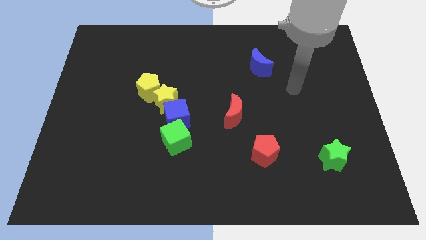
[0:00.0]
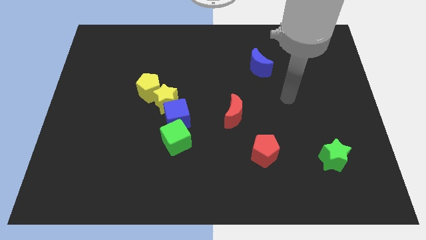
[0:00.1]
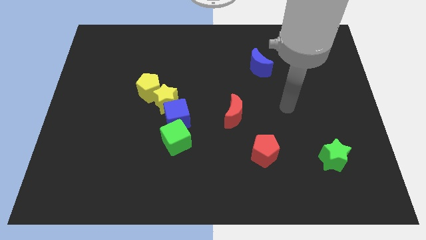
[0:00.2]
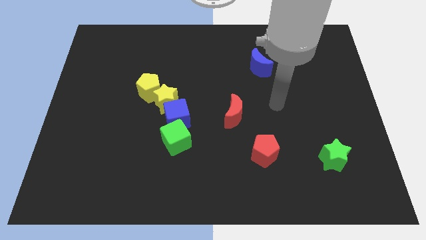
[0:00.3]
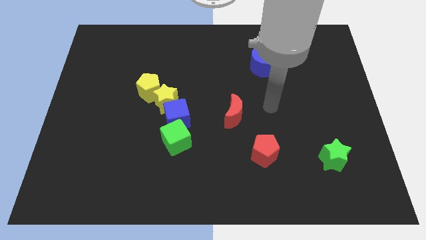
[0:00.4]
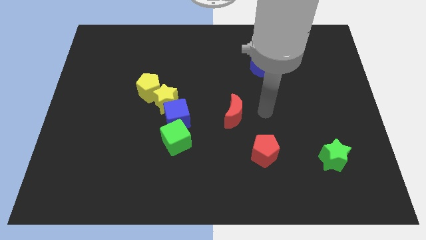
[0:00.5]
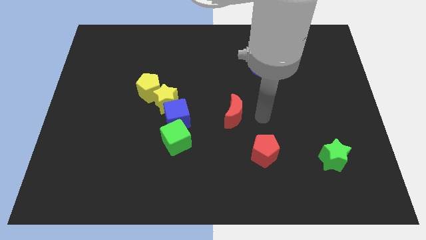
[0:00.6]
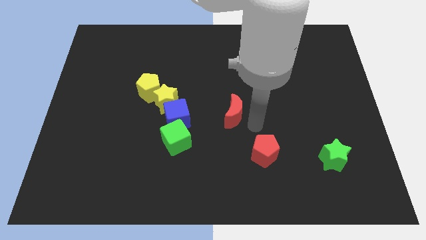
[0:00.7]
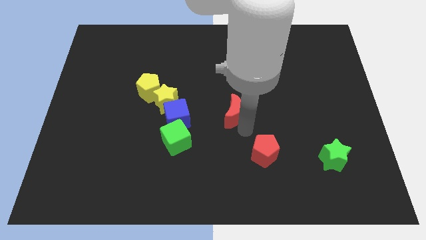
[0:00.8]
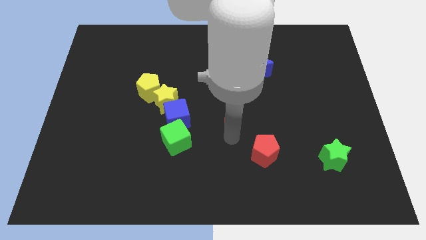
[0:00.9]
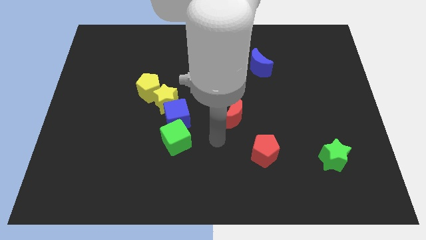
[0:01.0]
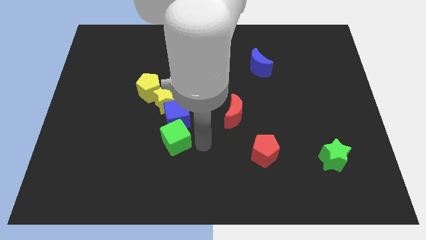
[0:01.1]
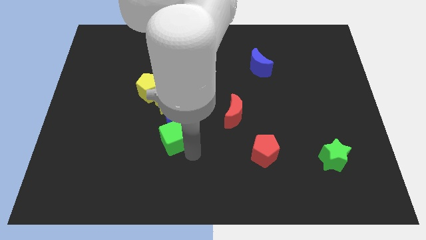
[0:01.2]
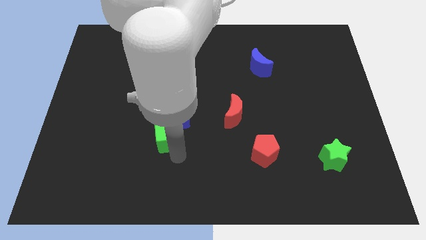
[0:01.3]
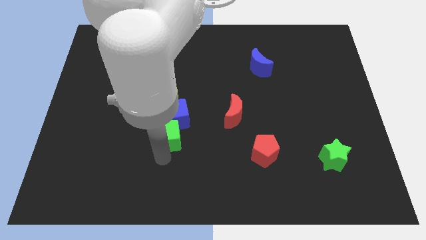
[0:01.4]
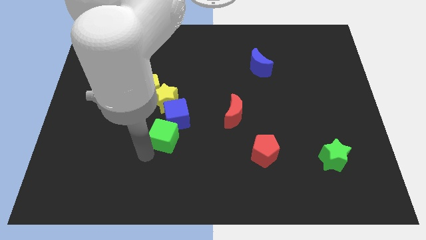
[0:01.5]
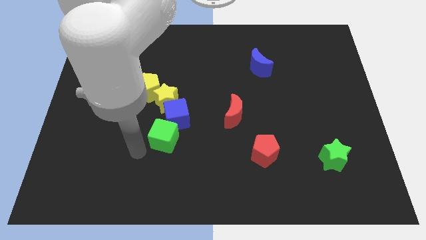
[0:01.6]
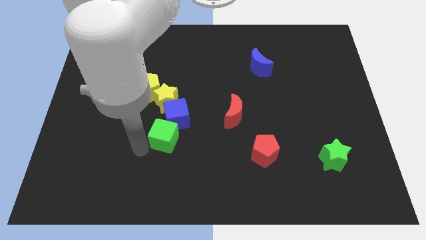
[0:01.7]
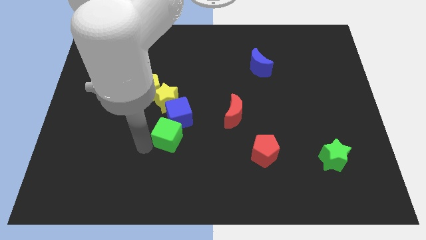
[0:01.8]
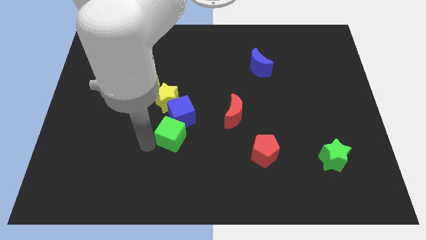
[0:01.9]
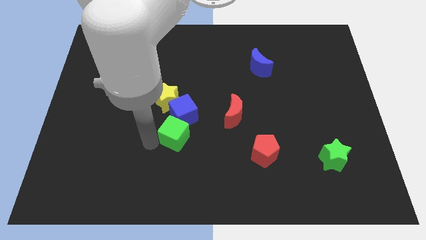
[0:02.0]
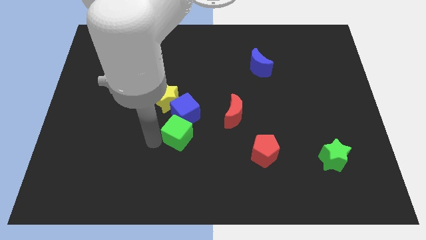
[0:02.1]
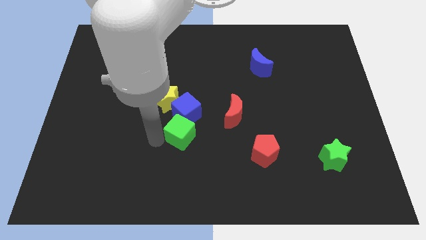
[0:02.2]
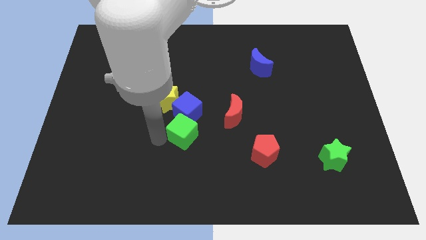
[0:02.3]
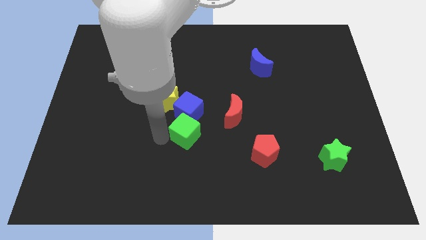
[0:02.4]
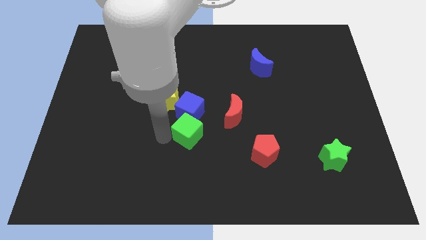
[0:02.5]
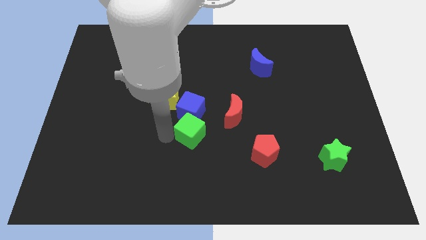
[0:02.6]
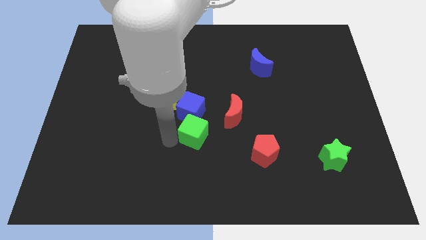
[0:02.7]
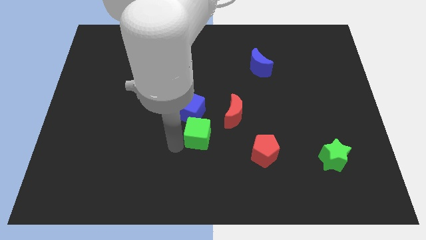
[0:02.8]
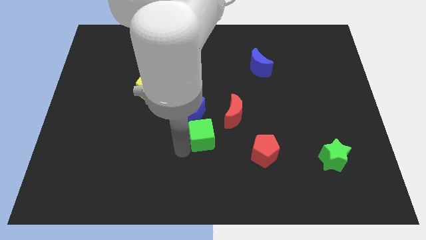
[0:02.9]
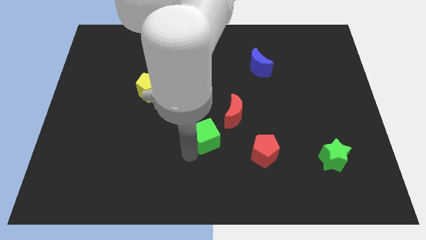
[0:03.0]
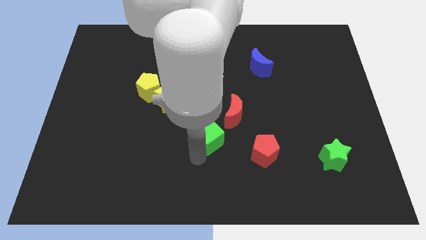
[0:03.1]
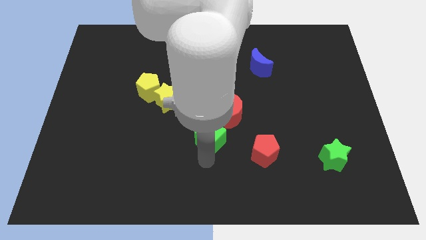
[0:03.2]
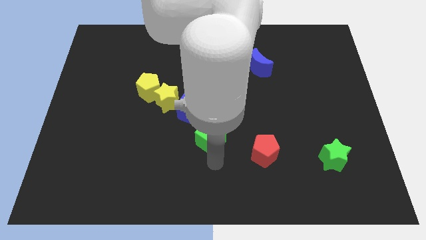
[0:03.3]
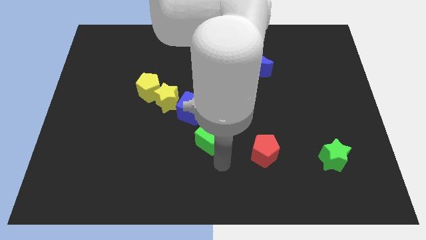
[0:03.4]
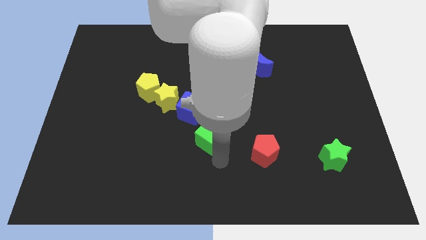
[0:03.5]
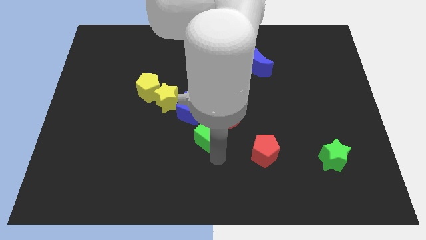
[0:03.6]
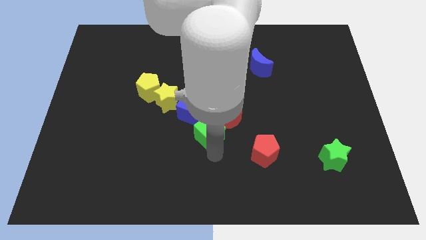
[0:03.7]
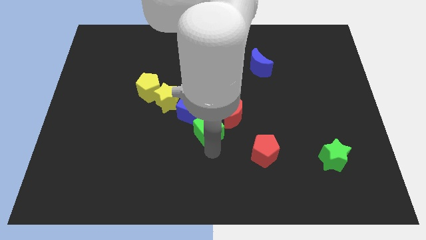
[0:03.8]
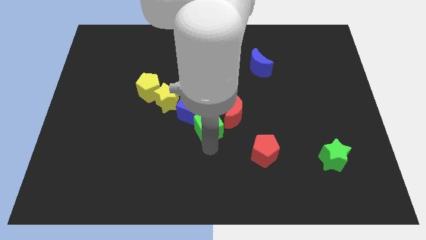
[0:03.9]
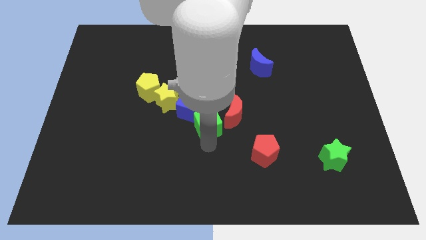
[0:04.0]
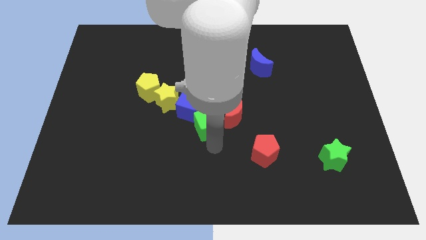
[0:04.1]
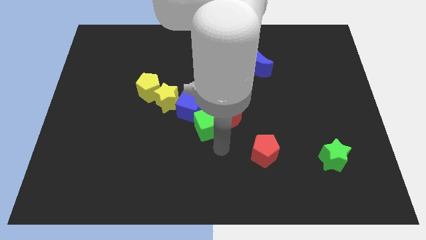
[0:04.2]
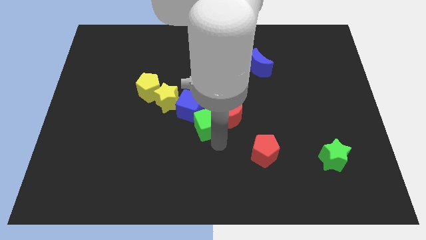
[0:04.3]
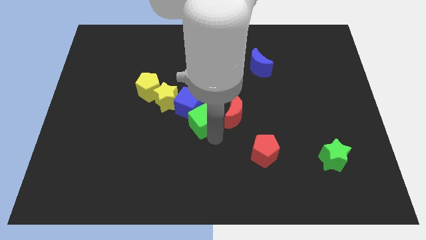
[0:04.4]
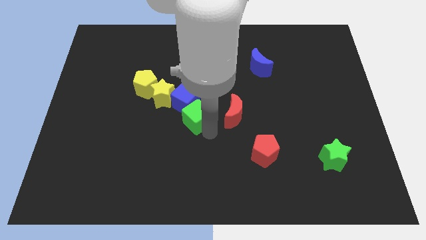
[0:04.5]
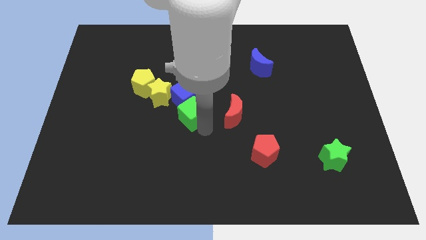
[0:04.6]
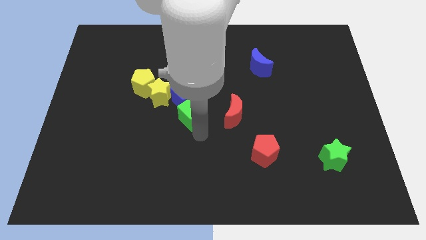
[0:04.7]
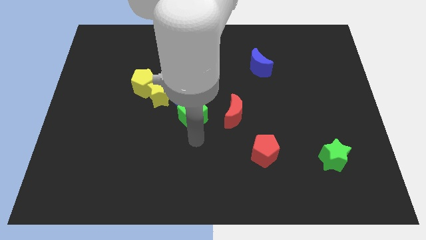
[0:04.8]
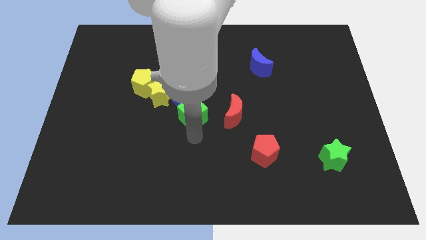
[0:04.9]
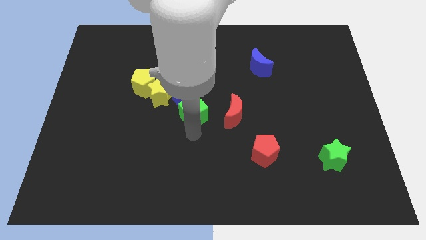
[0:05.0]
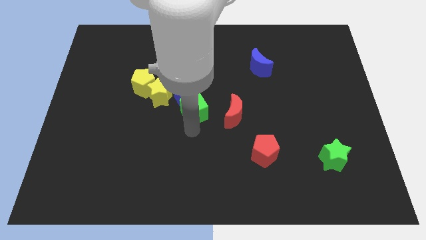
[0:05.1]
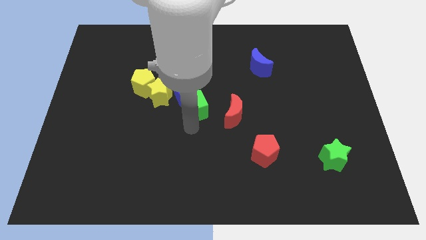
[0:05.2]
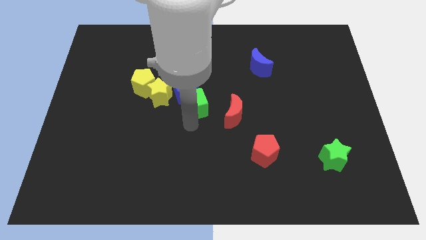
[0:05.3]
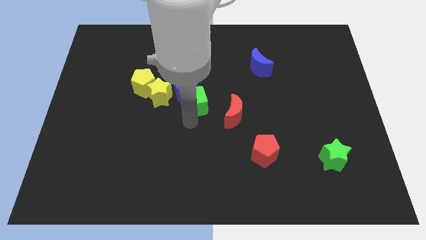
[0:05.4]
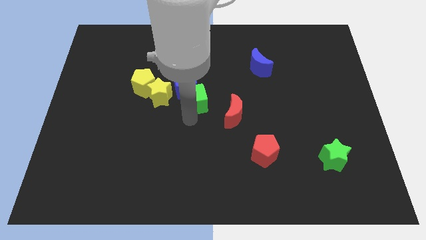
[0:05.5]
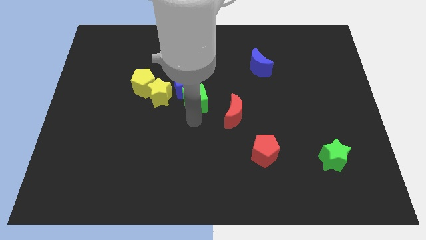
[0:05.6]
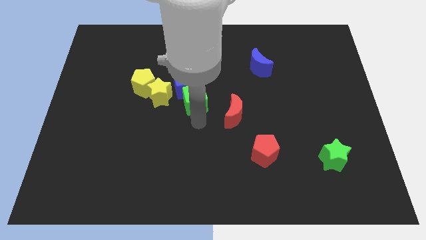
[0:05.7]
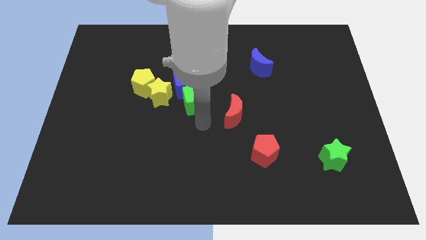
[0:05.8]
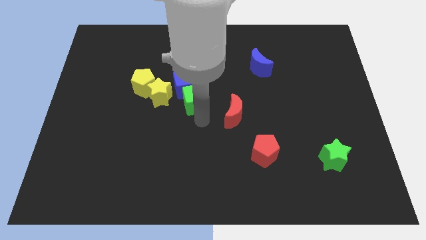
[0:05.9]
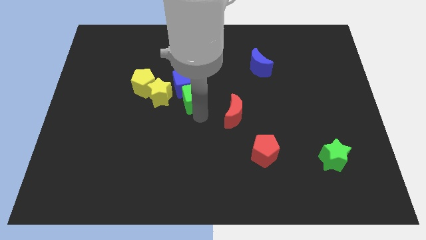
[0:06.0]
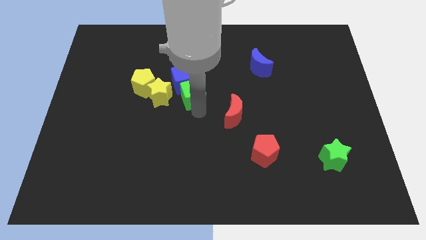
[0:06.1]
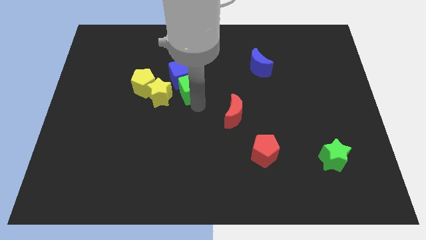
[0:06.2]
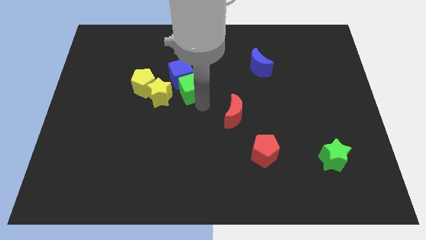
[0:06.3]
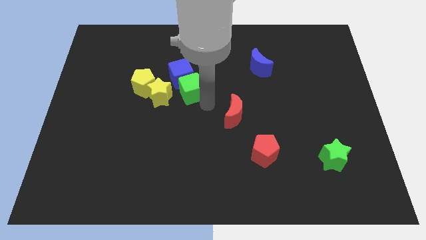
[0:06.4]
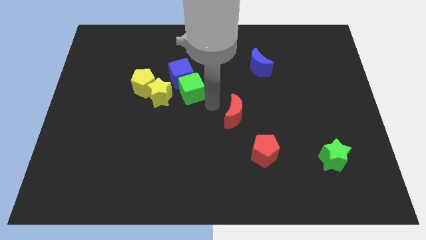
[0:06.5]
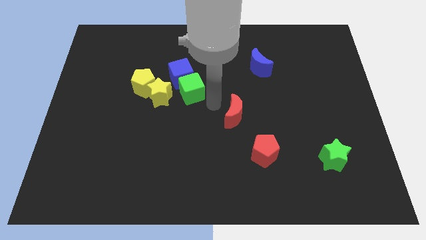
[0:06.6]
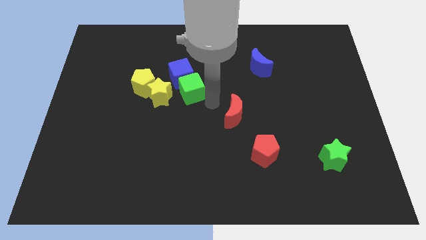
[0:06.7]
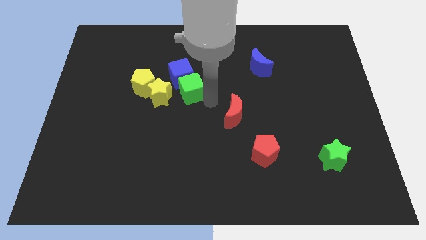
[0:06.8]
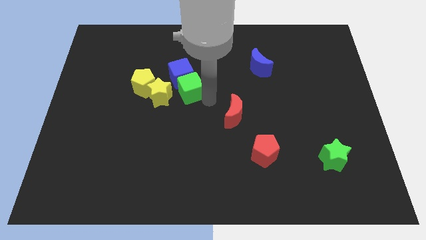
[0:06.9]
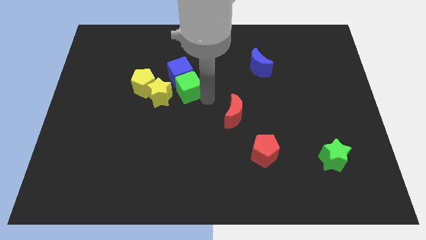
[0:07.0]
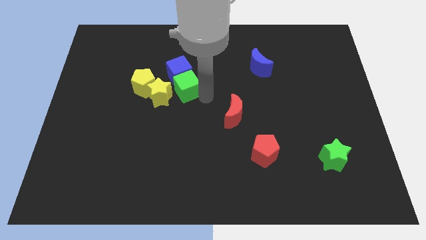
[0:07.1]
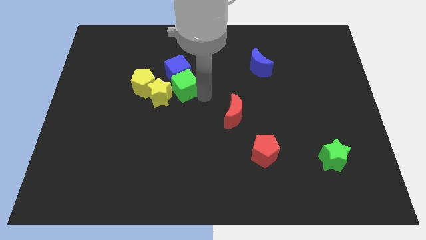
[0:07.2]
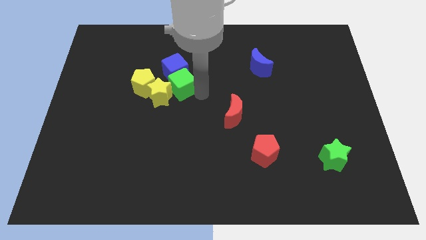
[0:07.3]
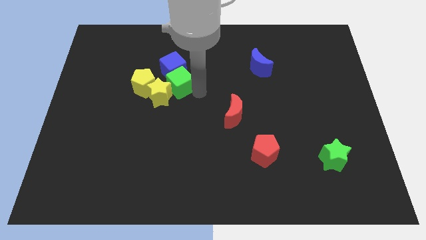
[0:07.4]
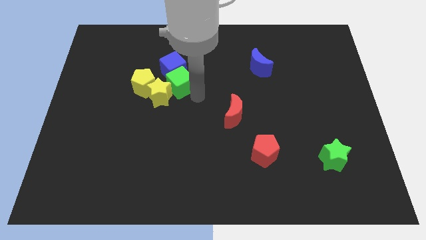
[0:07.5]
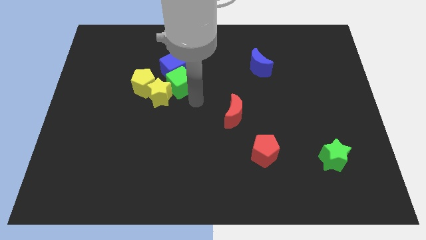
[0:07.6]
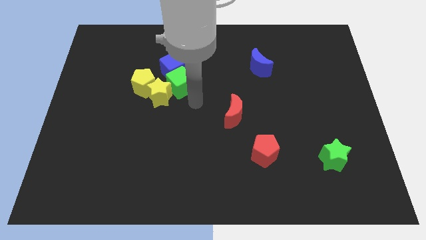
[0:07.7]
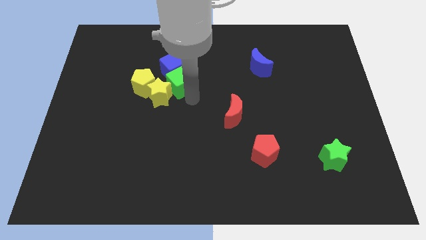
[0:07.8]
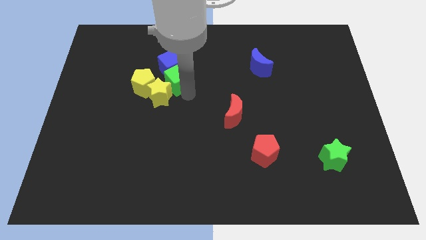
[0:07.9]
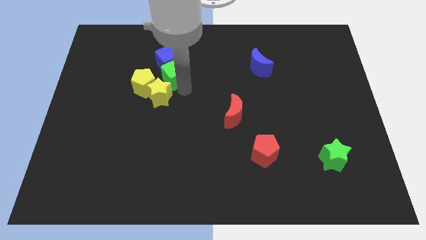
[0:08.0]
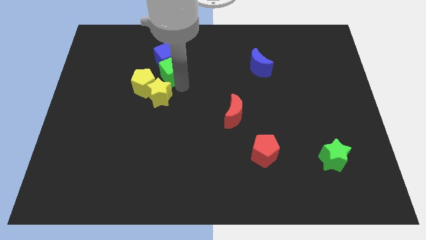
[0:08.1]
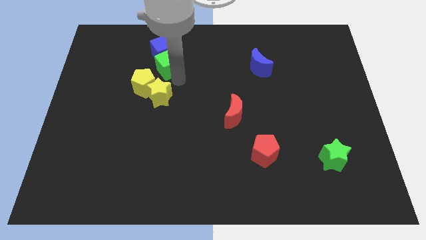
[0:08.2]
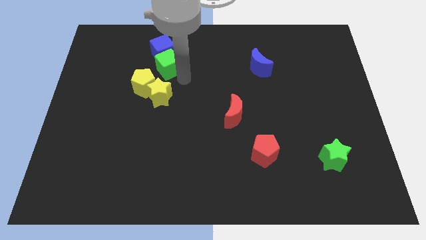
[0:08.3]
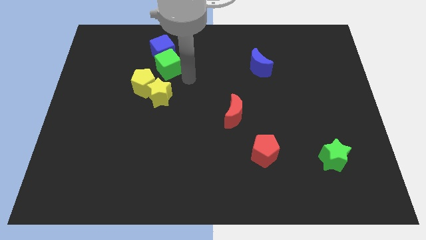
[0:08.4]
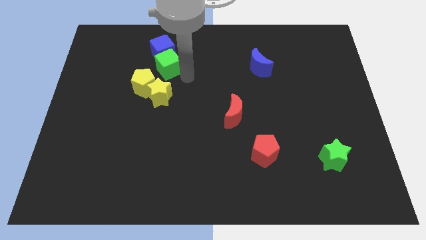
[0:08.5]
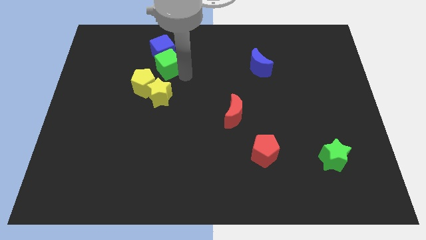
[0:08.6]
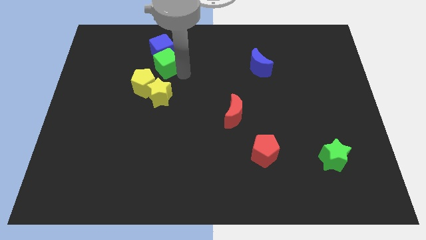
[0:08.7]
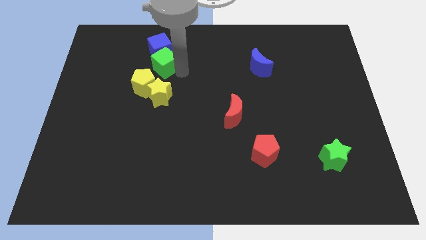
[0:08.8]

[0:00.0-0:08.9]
push the green cube to the top of the yellow pentagon
